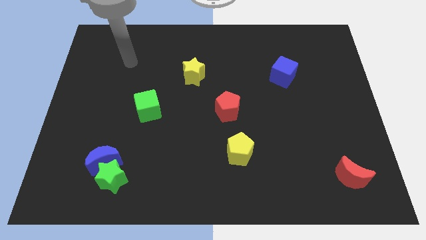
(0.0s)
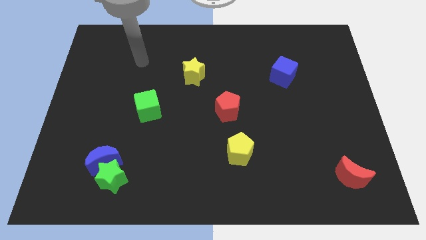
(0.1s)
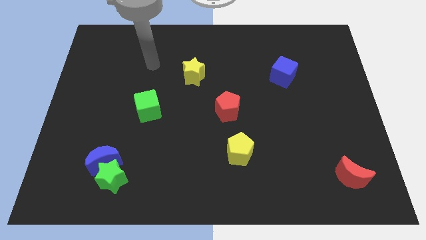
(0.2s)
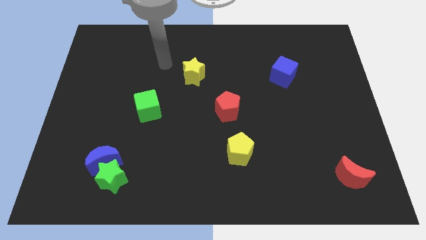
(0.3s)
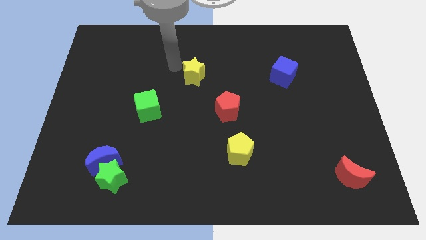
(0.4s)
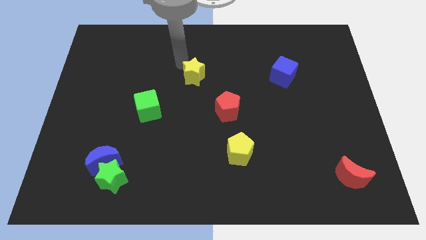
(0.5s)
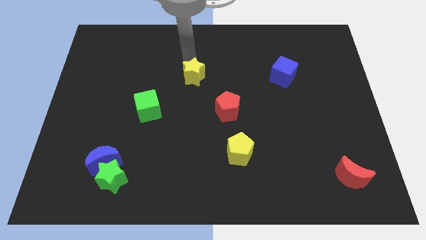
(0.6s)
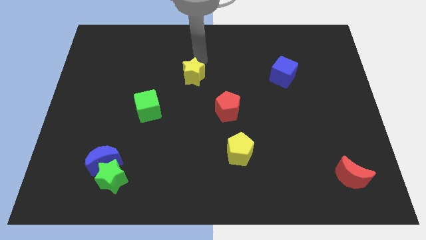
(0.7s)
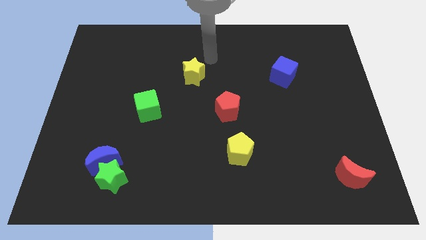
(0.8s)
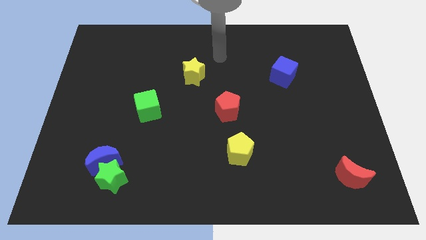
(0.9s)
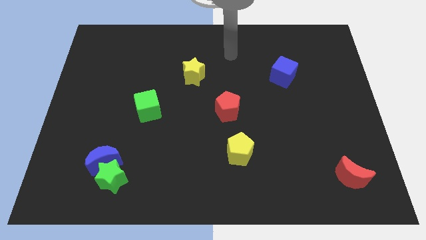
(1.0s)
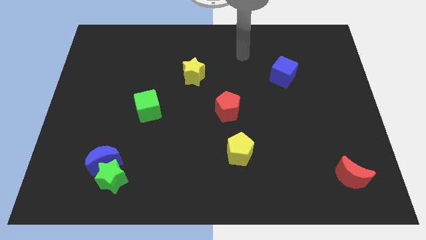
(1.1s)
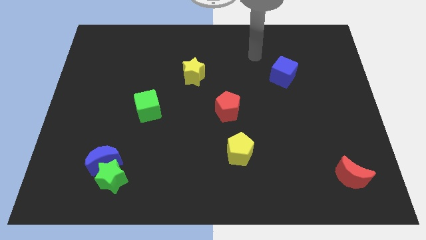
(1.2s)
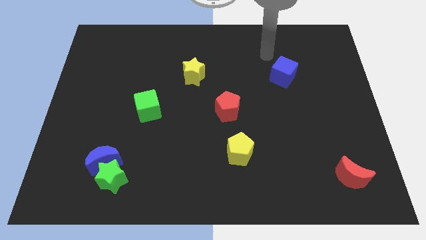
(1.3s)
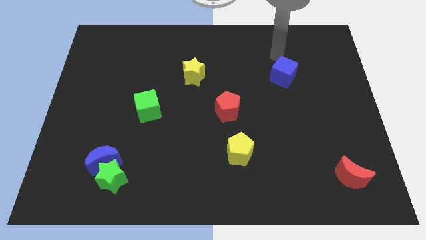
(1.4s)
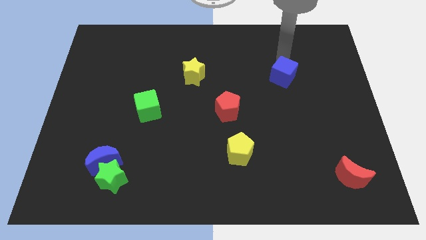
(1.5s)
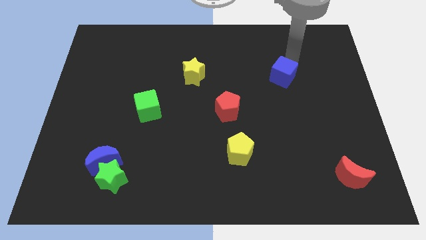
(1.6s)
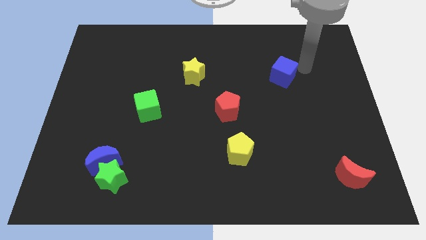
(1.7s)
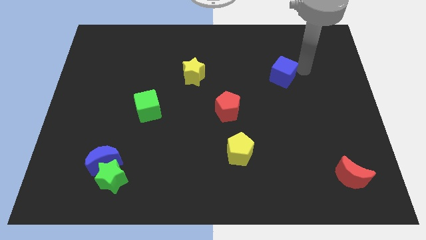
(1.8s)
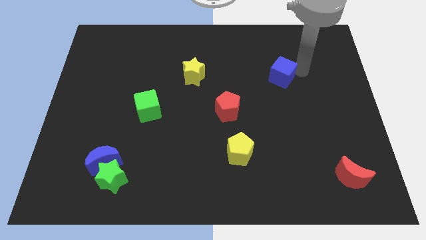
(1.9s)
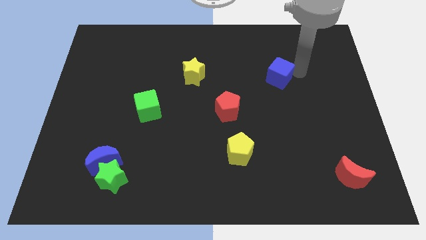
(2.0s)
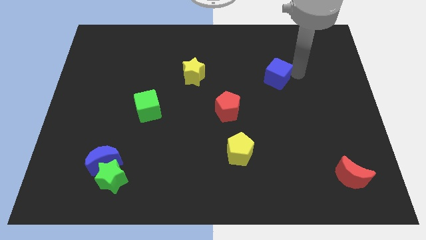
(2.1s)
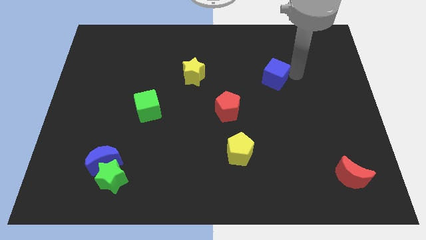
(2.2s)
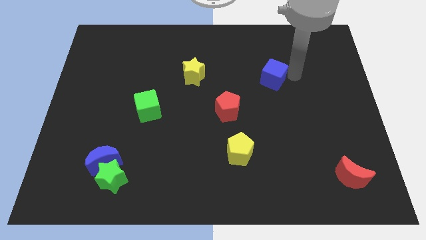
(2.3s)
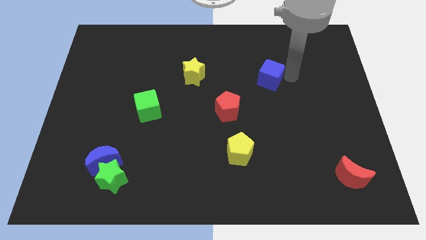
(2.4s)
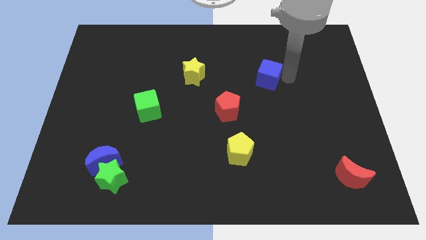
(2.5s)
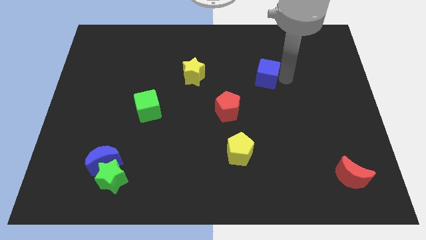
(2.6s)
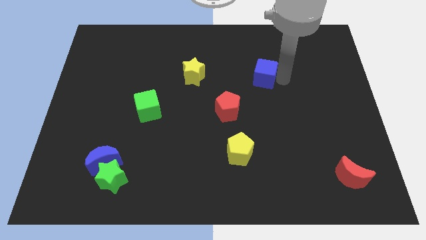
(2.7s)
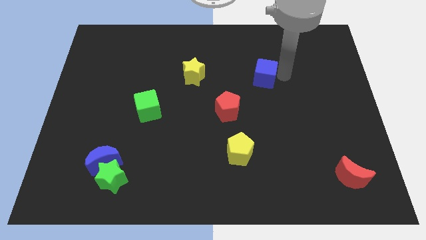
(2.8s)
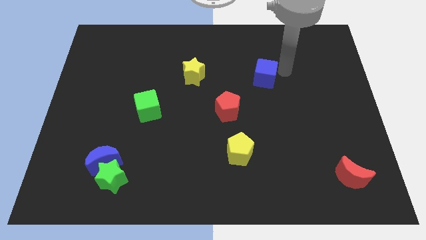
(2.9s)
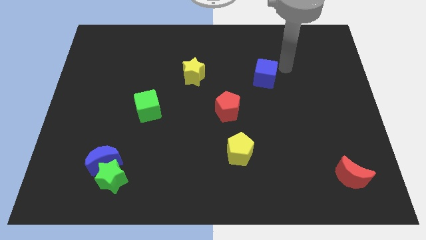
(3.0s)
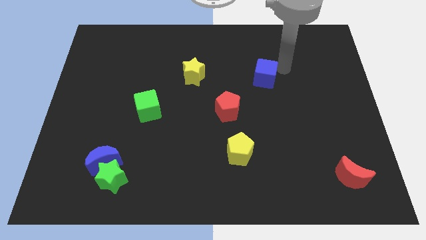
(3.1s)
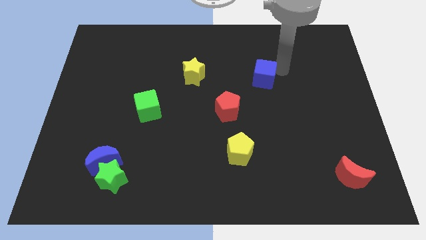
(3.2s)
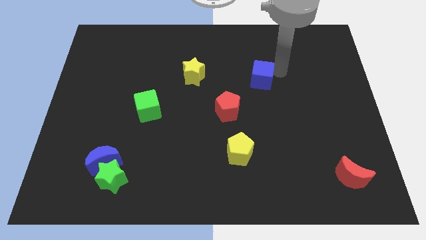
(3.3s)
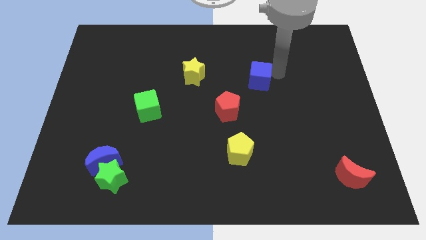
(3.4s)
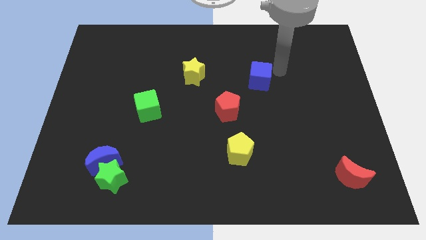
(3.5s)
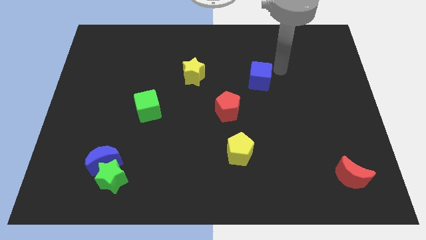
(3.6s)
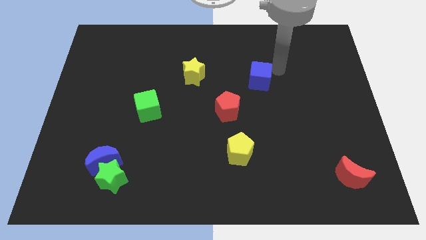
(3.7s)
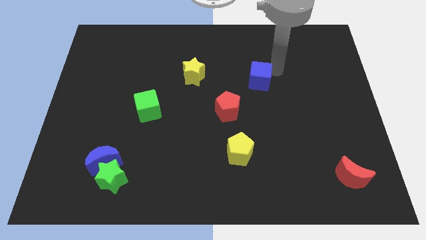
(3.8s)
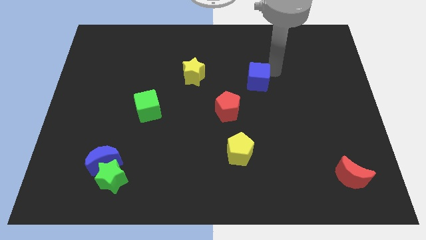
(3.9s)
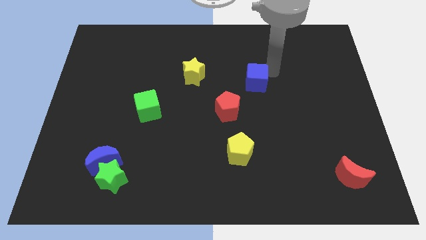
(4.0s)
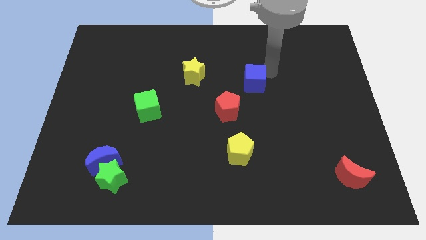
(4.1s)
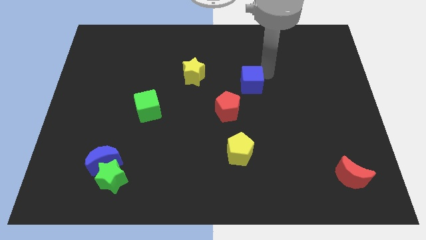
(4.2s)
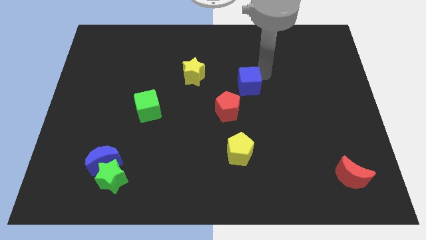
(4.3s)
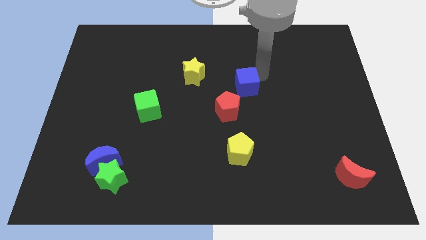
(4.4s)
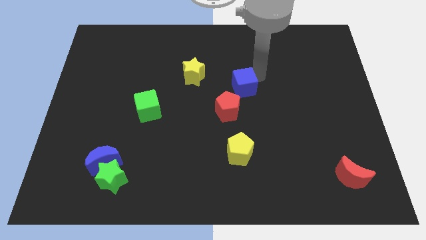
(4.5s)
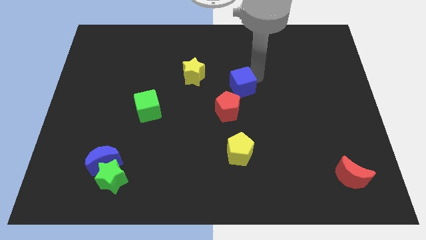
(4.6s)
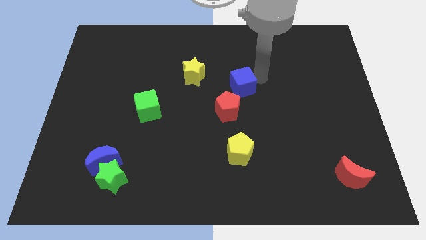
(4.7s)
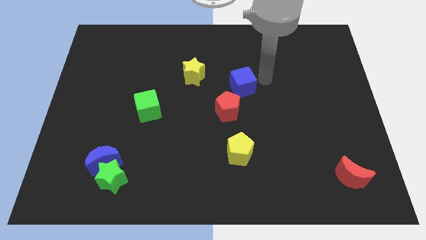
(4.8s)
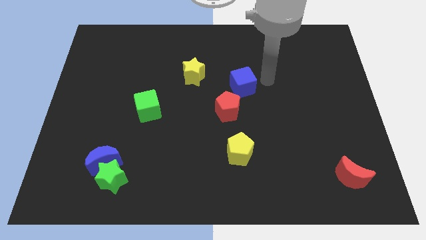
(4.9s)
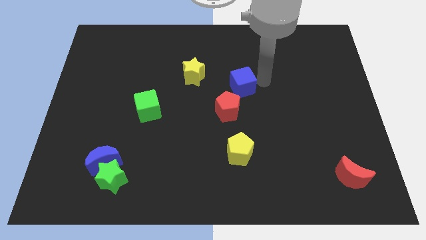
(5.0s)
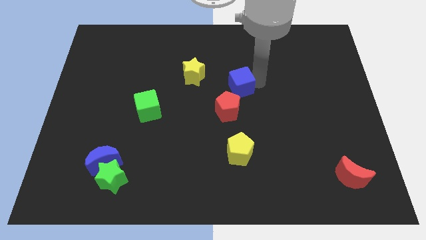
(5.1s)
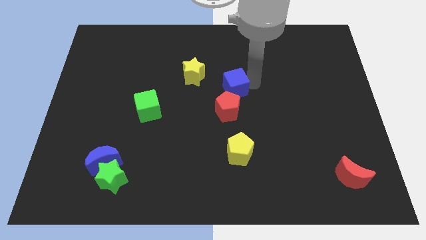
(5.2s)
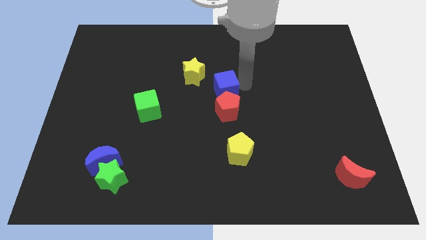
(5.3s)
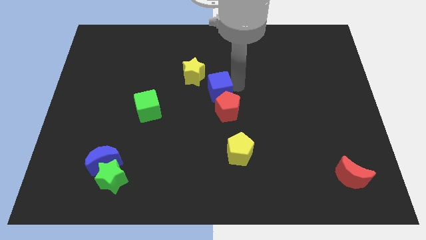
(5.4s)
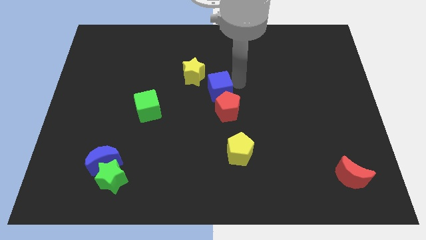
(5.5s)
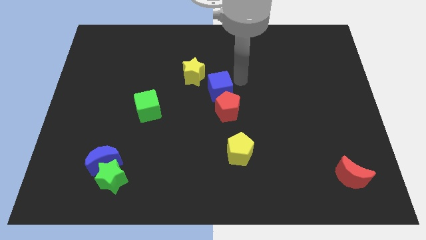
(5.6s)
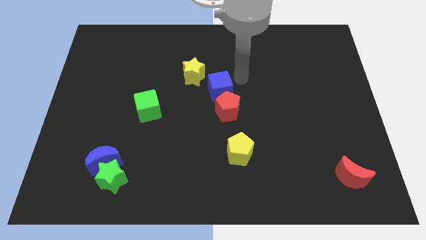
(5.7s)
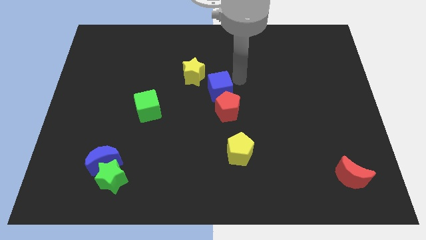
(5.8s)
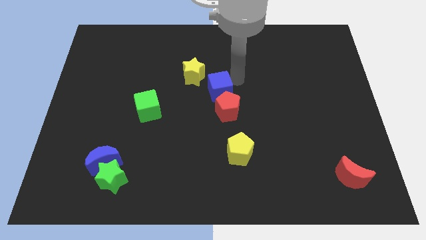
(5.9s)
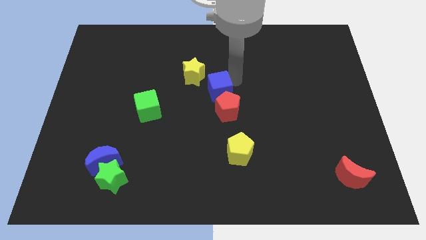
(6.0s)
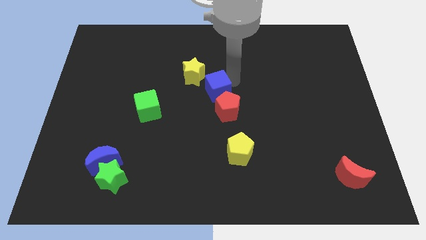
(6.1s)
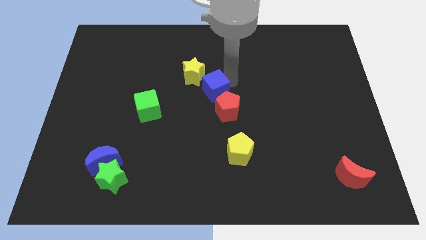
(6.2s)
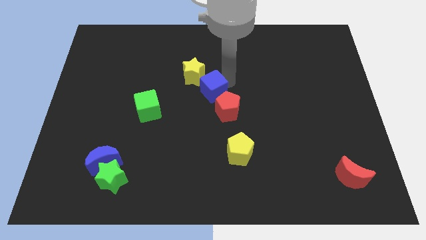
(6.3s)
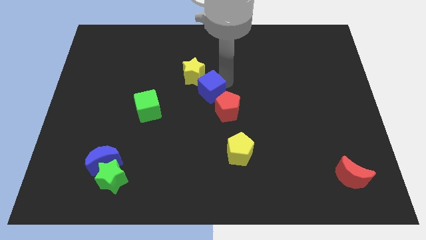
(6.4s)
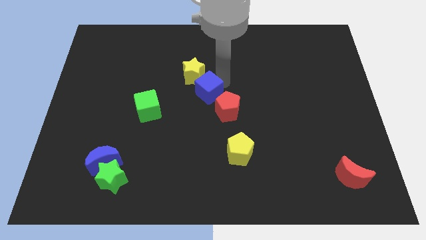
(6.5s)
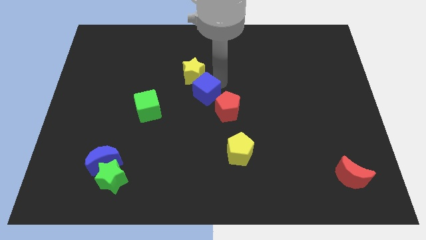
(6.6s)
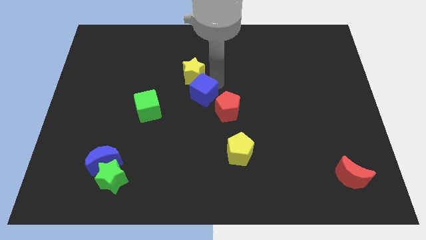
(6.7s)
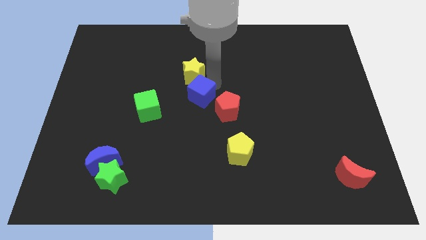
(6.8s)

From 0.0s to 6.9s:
move the blue cube to the right of the green cube
